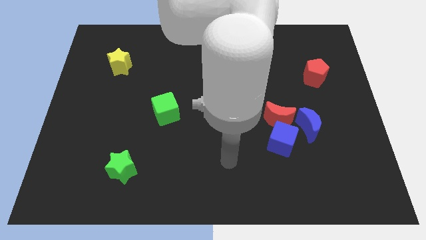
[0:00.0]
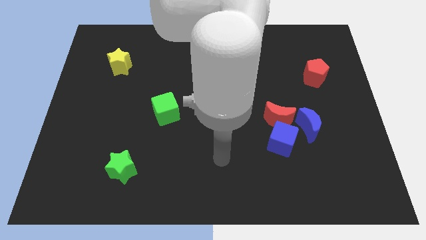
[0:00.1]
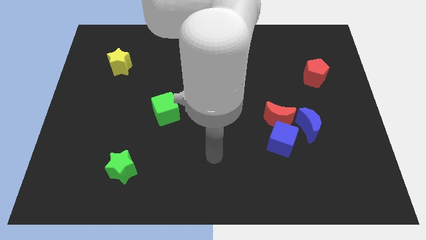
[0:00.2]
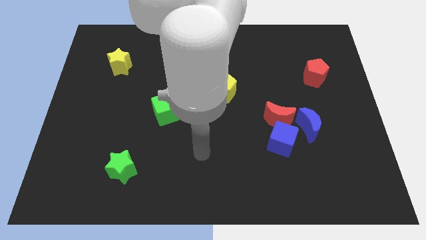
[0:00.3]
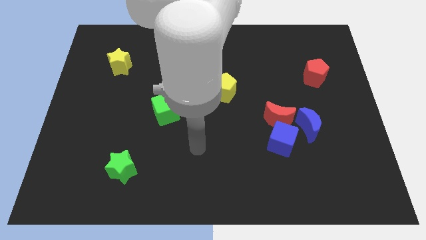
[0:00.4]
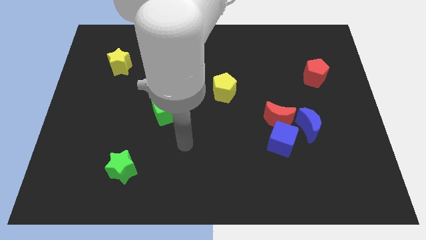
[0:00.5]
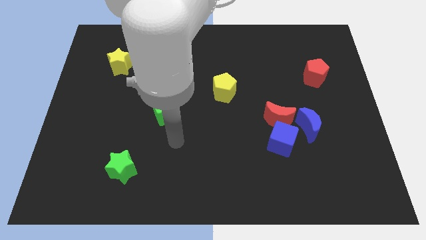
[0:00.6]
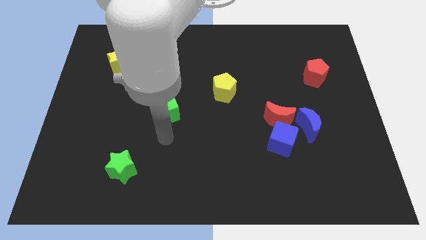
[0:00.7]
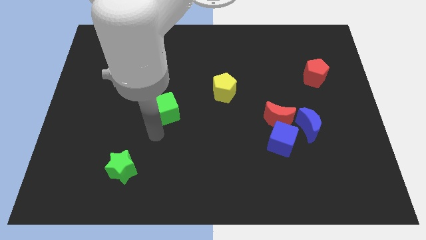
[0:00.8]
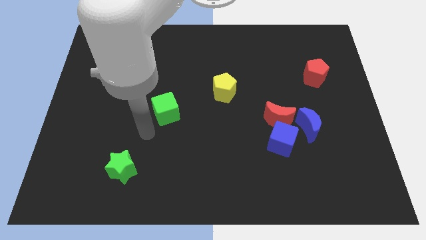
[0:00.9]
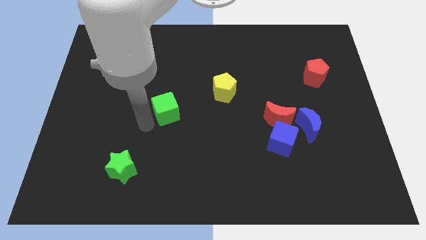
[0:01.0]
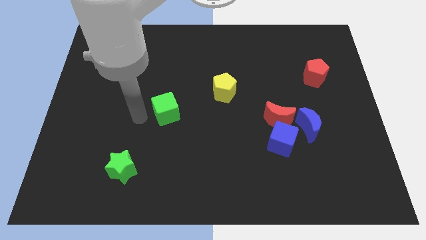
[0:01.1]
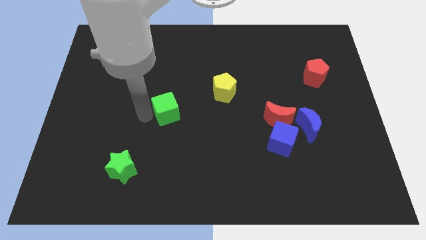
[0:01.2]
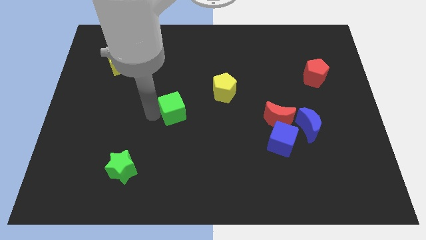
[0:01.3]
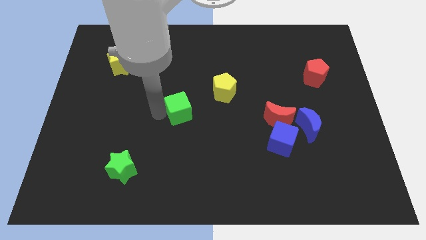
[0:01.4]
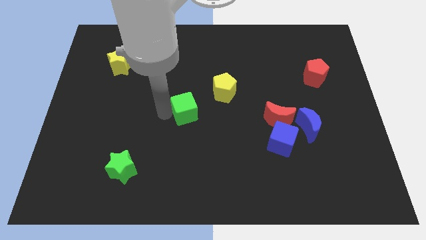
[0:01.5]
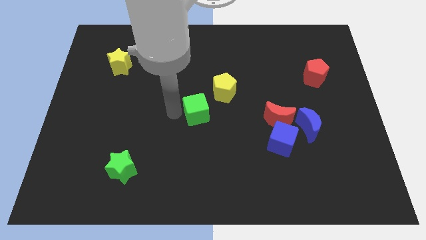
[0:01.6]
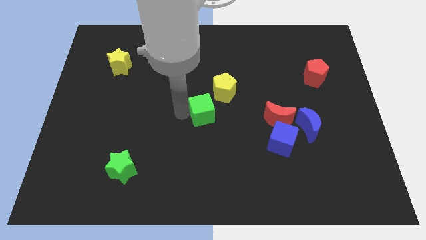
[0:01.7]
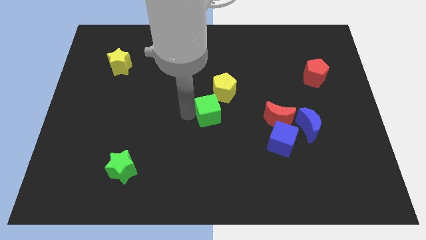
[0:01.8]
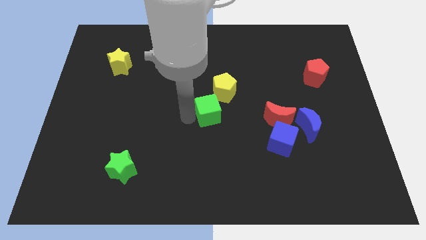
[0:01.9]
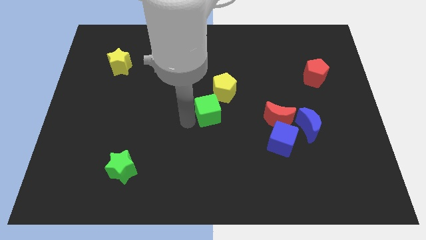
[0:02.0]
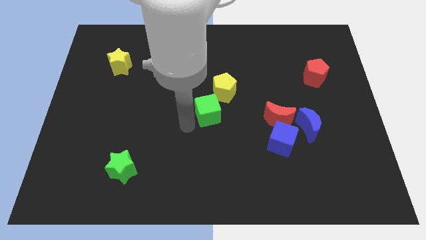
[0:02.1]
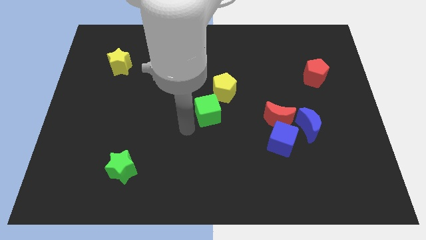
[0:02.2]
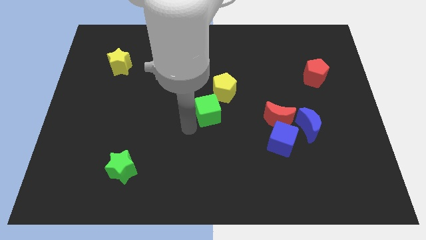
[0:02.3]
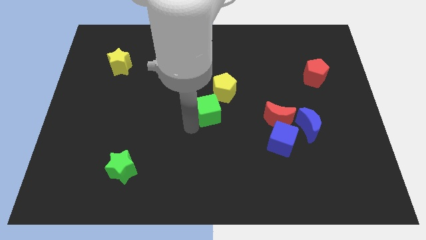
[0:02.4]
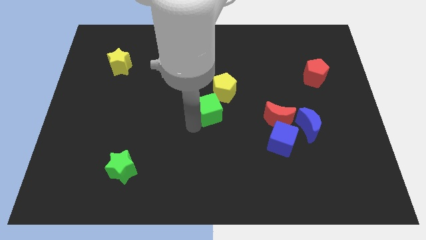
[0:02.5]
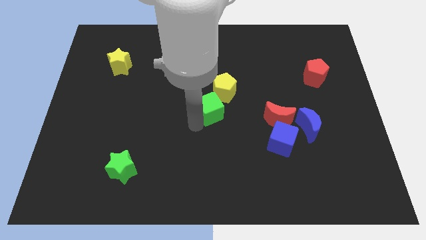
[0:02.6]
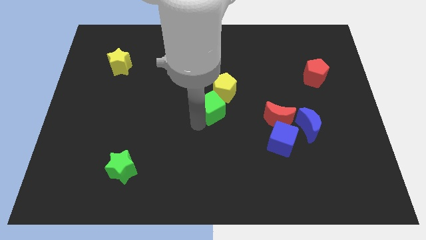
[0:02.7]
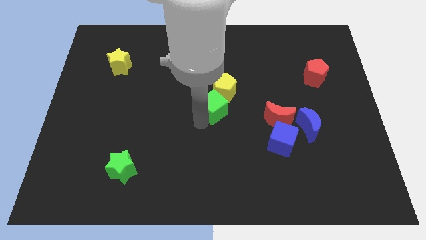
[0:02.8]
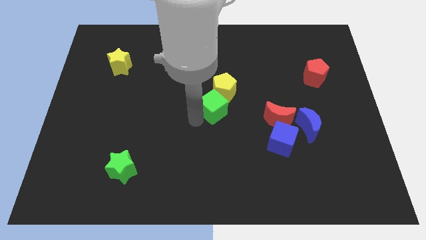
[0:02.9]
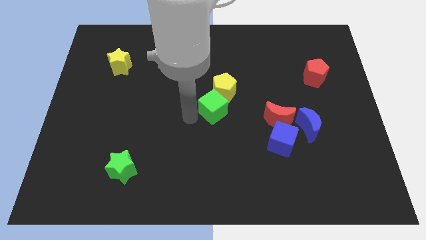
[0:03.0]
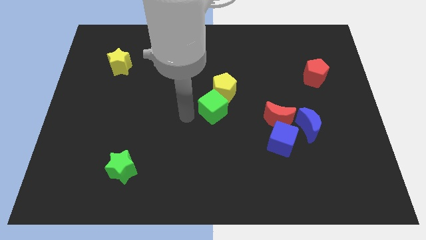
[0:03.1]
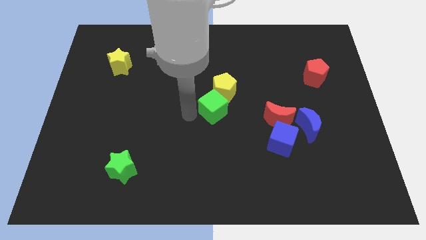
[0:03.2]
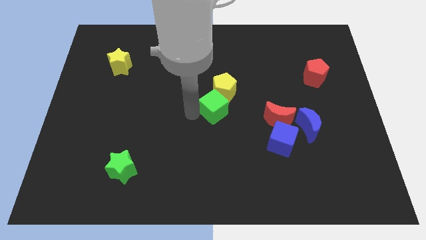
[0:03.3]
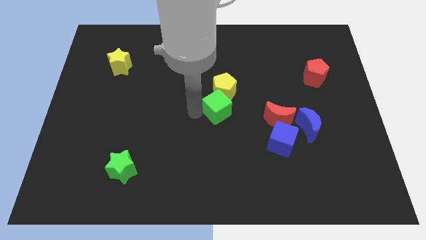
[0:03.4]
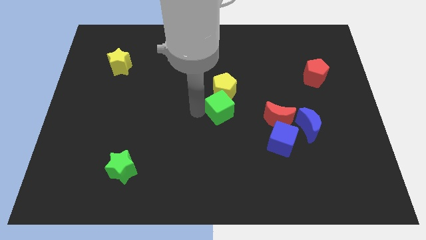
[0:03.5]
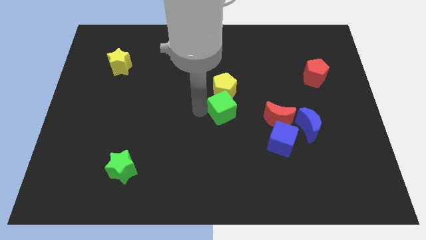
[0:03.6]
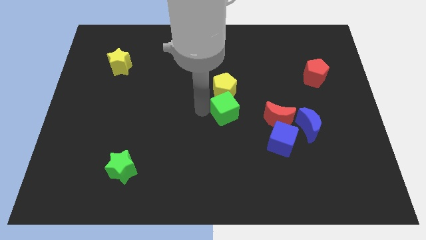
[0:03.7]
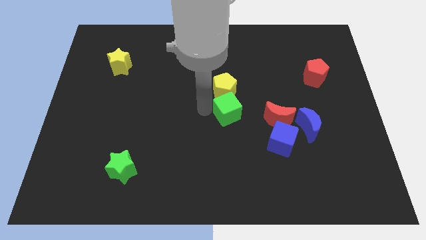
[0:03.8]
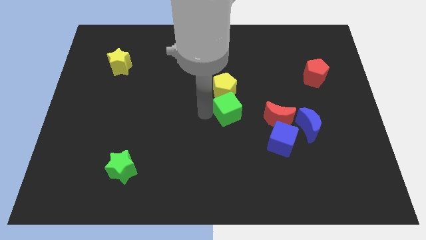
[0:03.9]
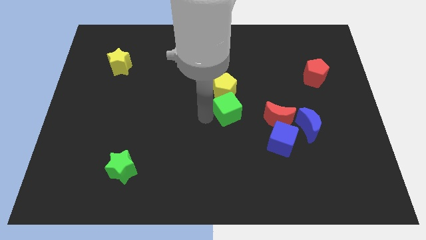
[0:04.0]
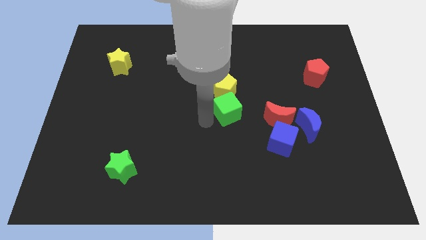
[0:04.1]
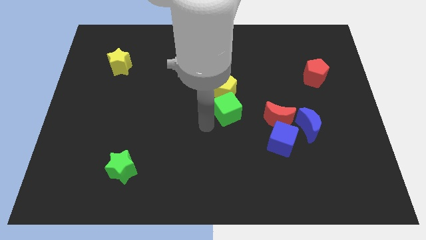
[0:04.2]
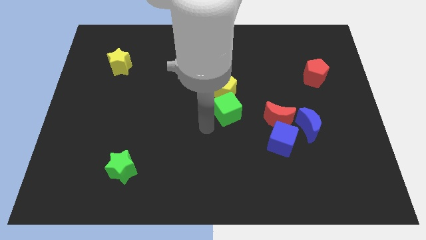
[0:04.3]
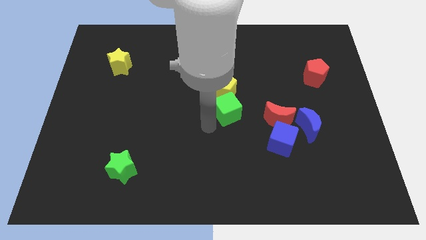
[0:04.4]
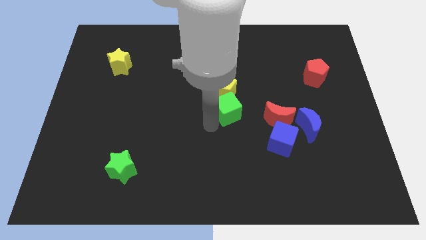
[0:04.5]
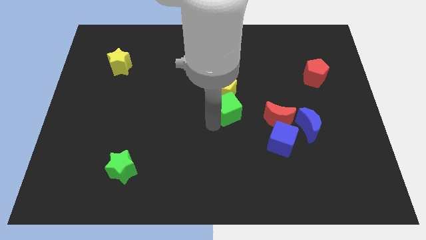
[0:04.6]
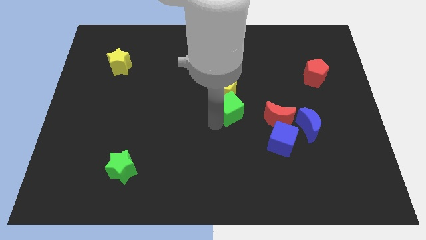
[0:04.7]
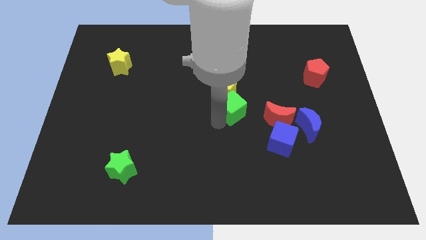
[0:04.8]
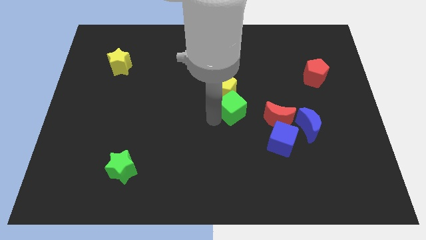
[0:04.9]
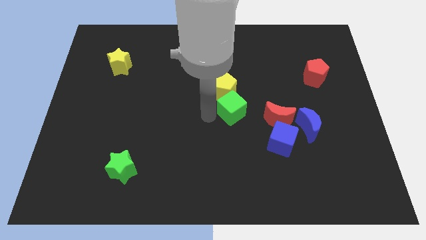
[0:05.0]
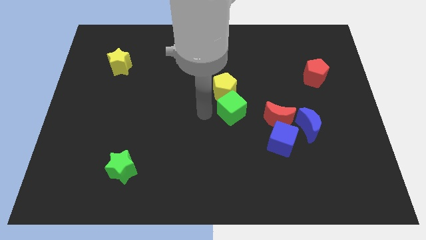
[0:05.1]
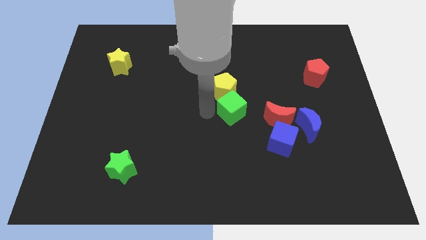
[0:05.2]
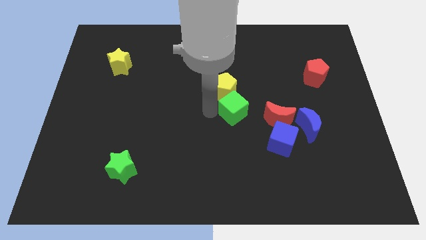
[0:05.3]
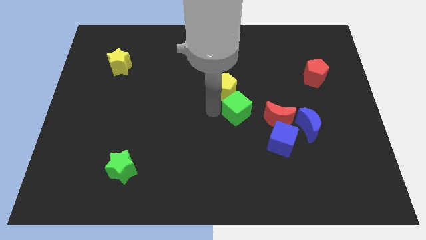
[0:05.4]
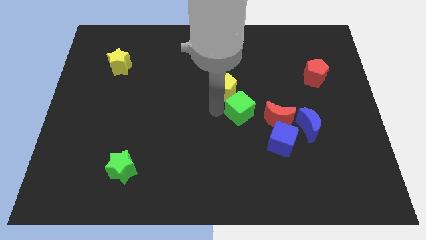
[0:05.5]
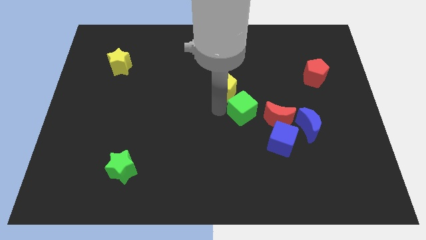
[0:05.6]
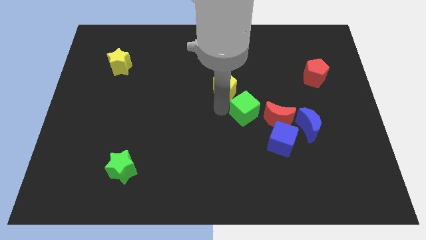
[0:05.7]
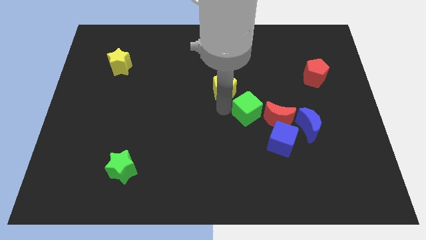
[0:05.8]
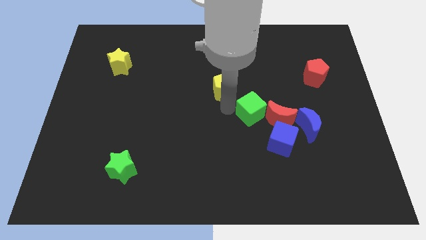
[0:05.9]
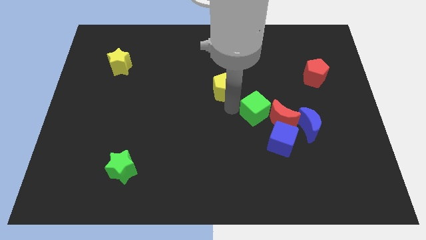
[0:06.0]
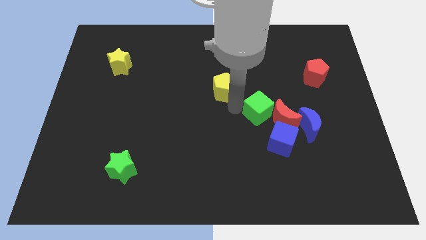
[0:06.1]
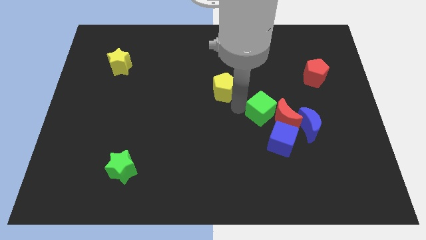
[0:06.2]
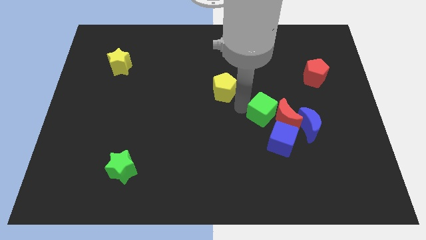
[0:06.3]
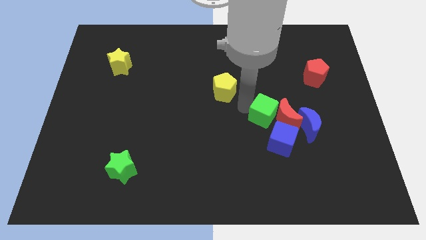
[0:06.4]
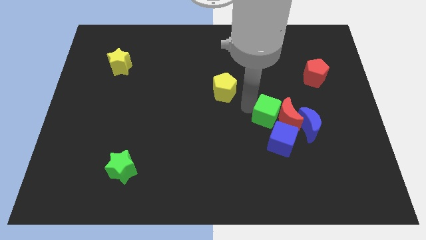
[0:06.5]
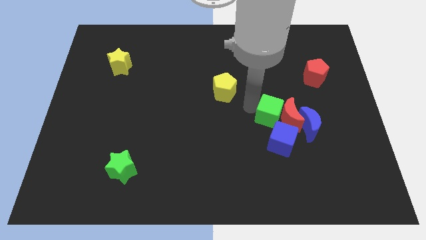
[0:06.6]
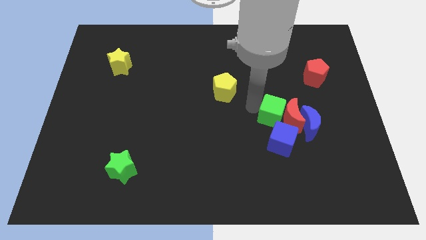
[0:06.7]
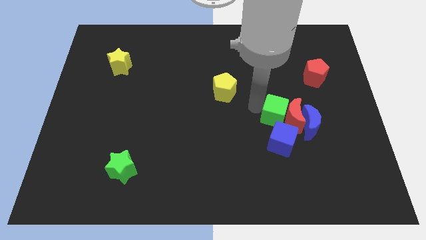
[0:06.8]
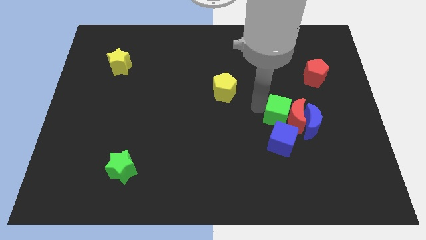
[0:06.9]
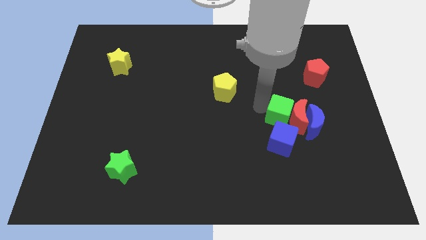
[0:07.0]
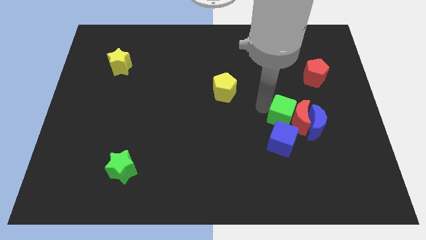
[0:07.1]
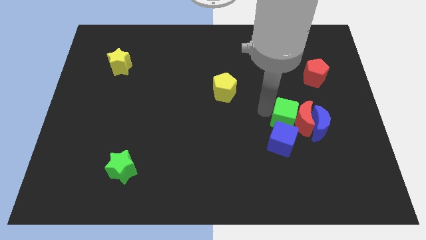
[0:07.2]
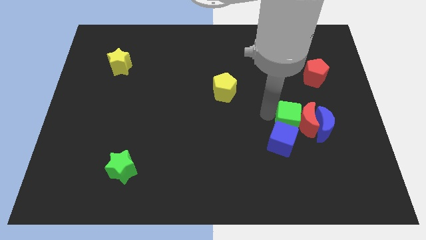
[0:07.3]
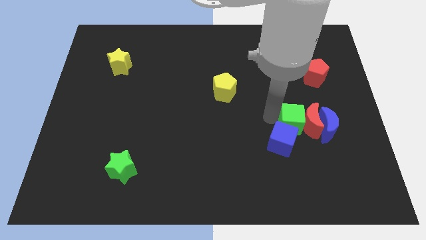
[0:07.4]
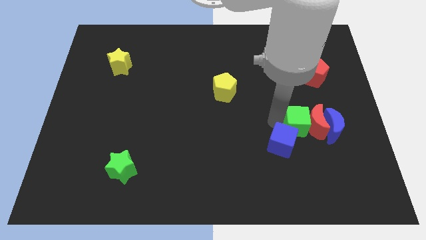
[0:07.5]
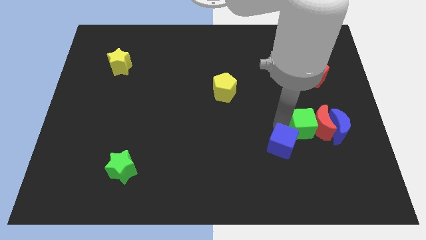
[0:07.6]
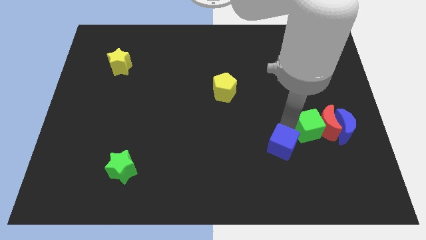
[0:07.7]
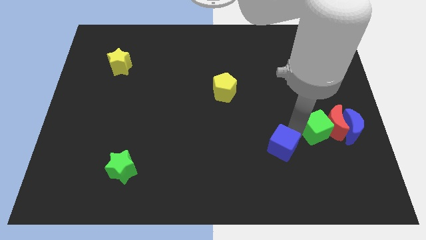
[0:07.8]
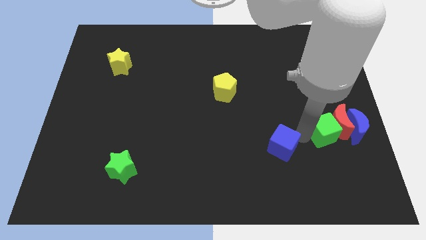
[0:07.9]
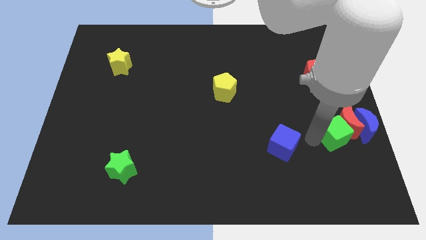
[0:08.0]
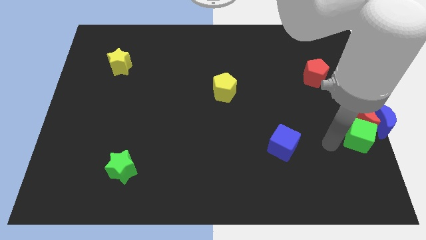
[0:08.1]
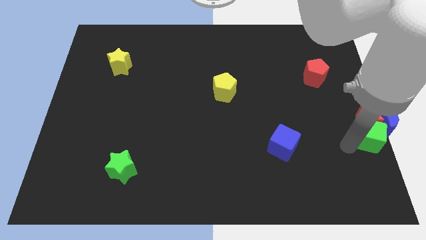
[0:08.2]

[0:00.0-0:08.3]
put the green cube next to the blue moon
